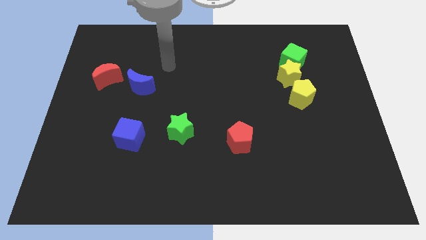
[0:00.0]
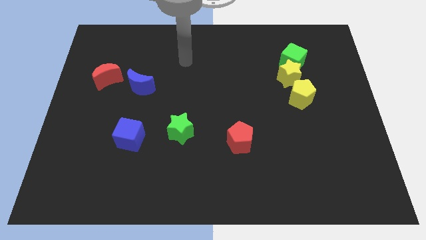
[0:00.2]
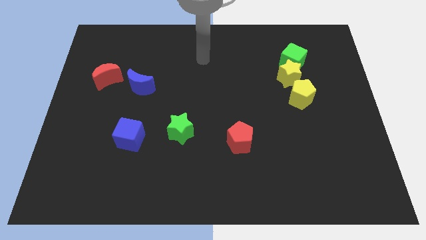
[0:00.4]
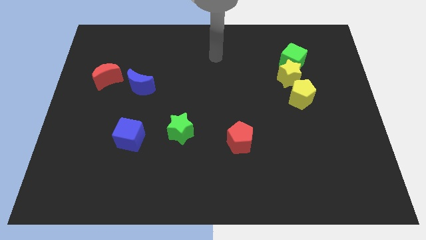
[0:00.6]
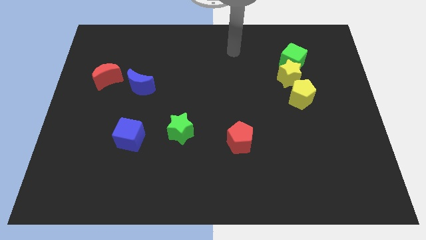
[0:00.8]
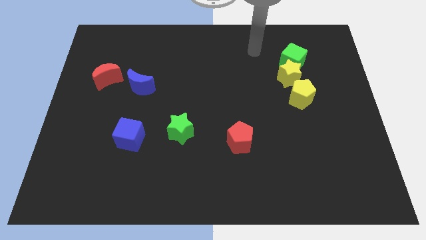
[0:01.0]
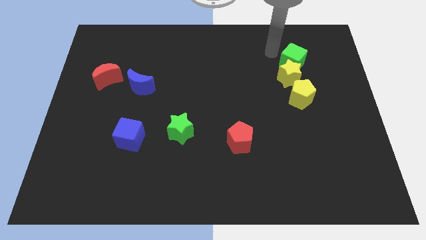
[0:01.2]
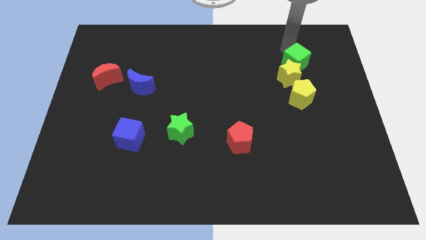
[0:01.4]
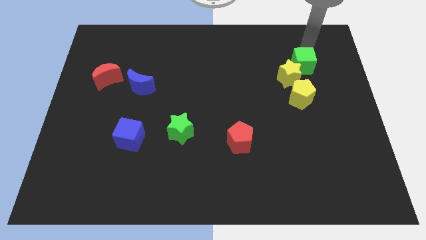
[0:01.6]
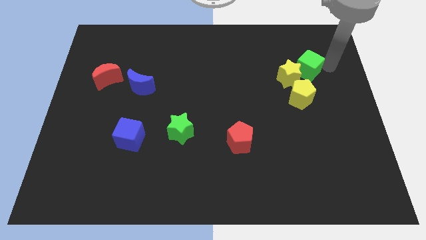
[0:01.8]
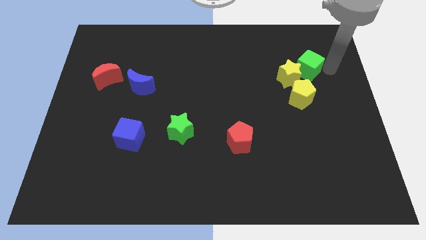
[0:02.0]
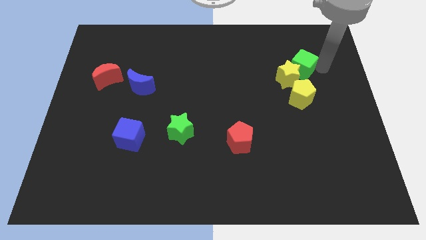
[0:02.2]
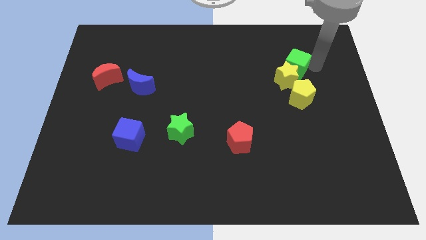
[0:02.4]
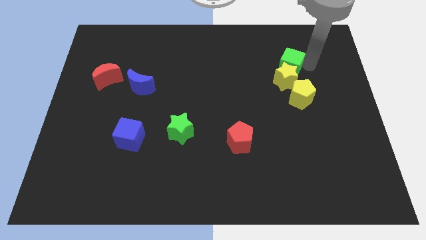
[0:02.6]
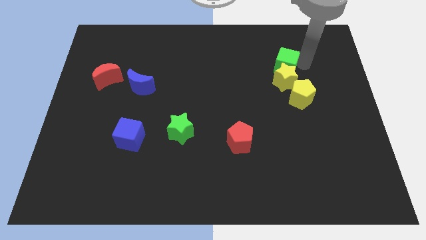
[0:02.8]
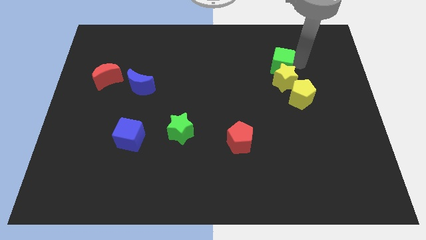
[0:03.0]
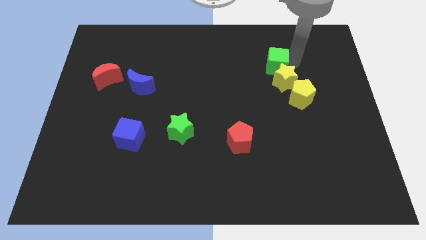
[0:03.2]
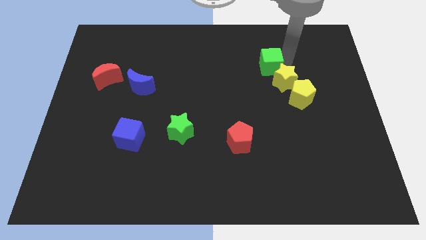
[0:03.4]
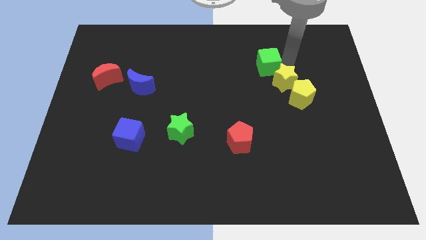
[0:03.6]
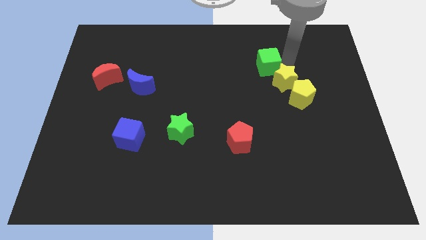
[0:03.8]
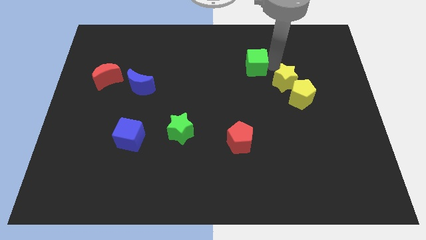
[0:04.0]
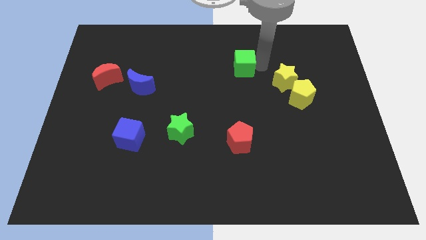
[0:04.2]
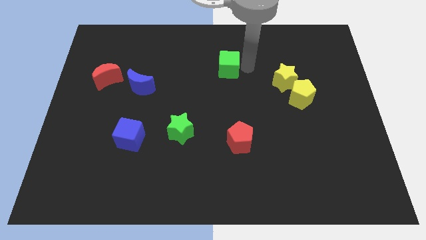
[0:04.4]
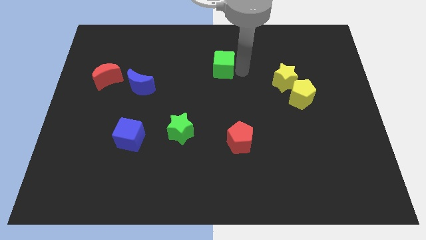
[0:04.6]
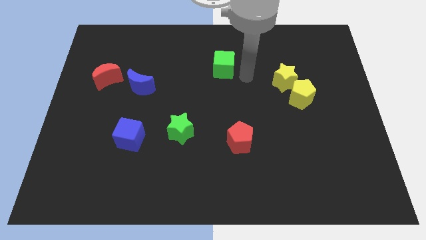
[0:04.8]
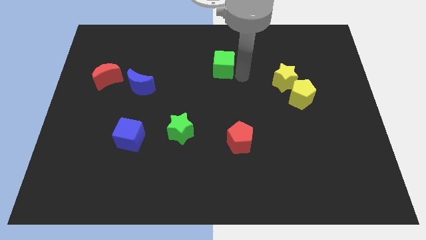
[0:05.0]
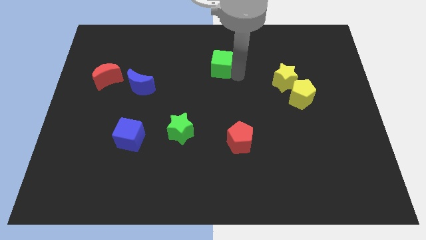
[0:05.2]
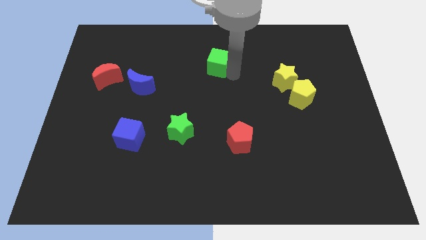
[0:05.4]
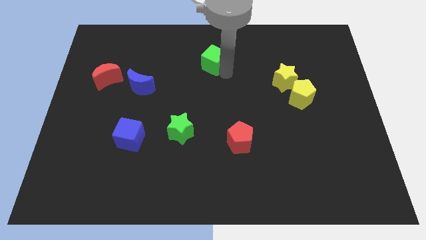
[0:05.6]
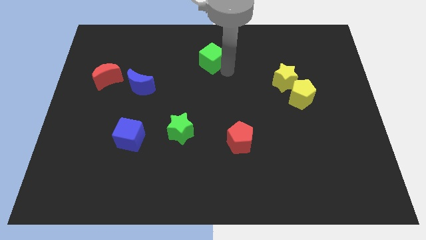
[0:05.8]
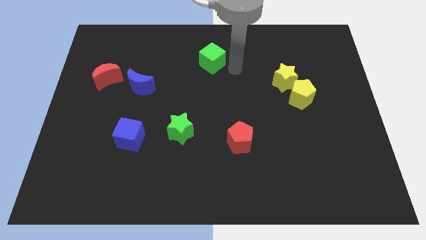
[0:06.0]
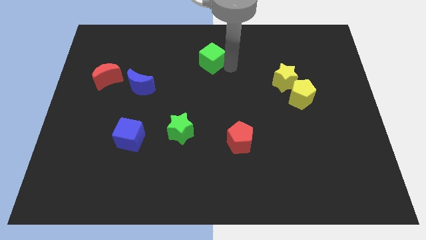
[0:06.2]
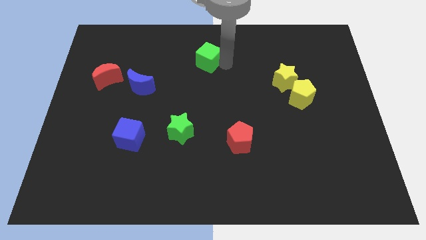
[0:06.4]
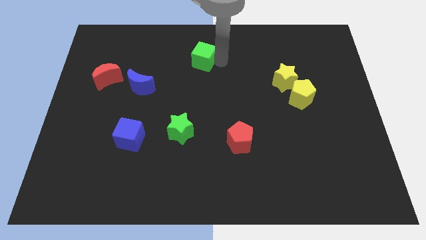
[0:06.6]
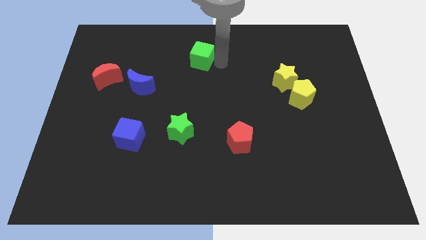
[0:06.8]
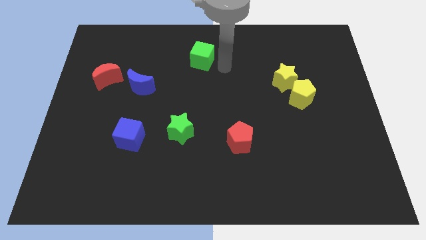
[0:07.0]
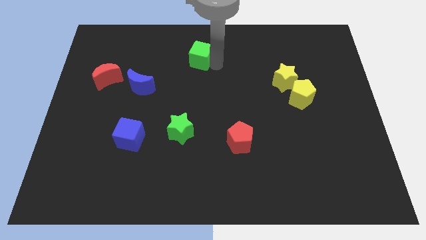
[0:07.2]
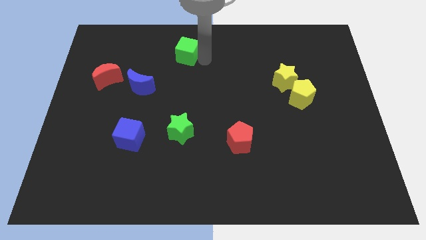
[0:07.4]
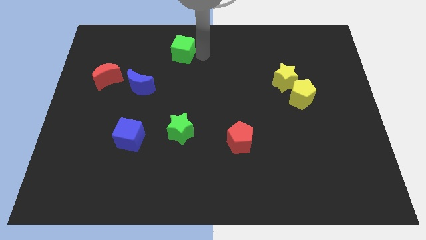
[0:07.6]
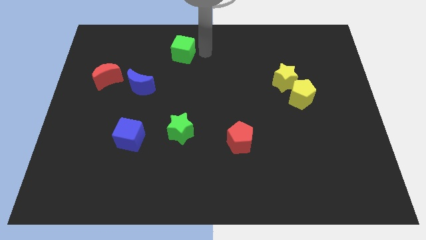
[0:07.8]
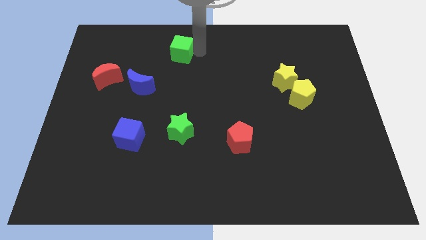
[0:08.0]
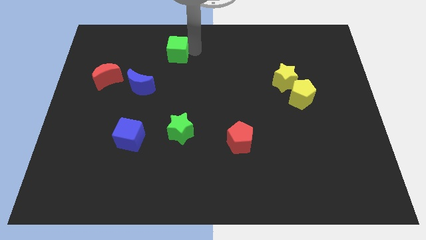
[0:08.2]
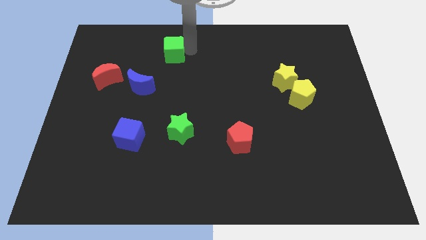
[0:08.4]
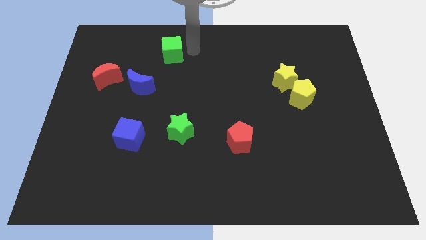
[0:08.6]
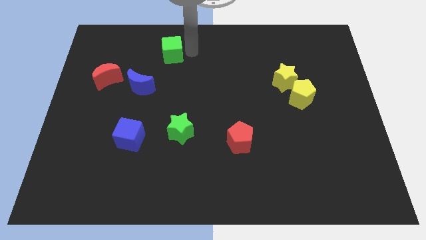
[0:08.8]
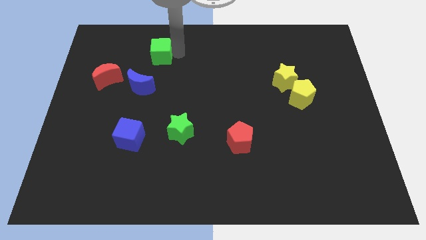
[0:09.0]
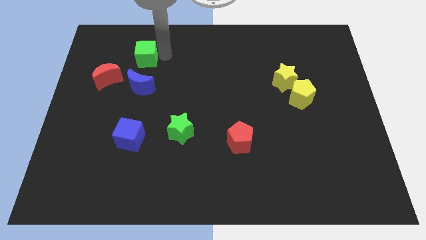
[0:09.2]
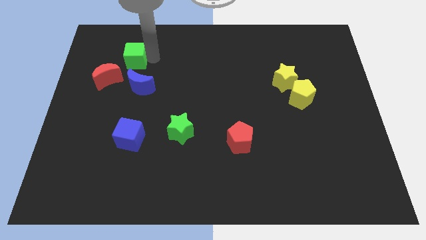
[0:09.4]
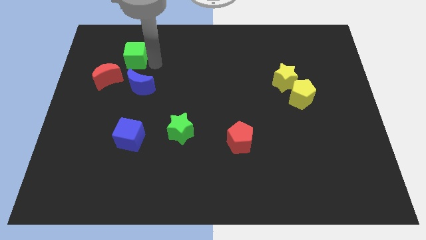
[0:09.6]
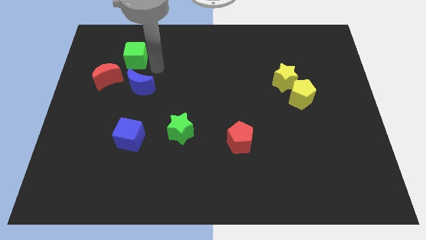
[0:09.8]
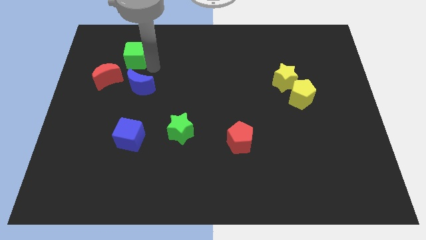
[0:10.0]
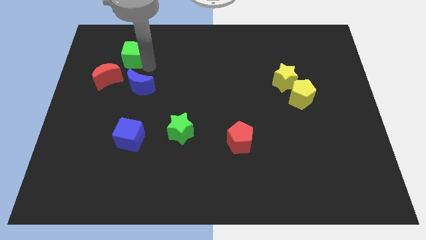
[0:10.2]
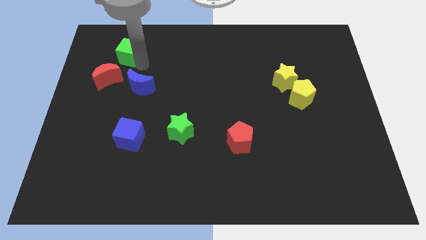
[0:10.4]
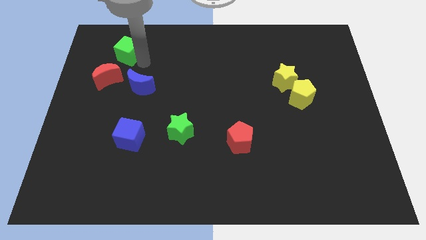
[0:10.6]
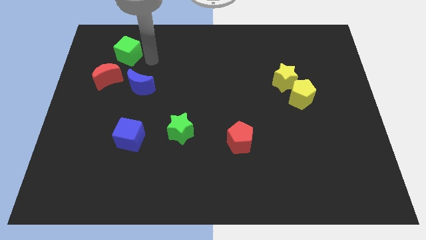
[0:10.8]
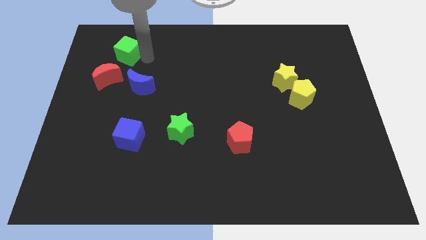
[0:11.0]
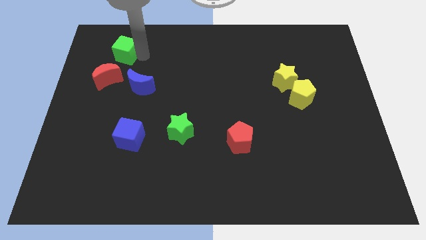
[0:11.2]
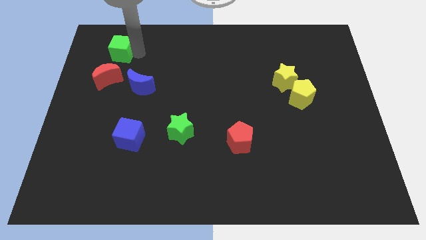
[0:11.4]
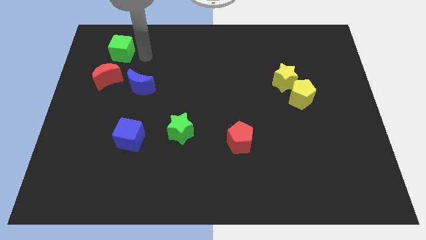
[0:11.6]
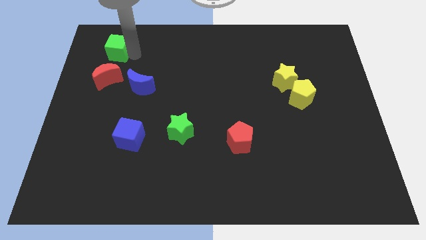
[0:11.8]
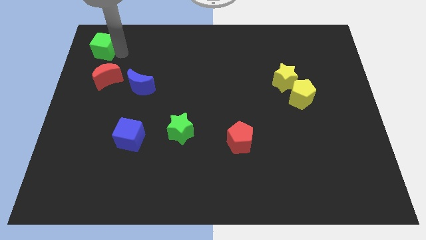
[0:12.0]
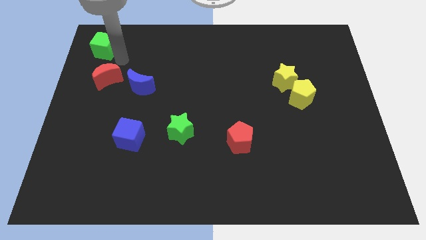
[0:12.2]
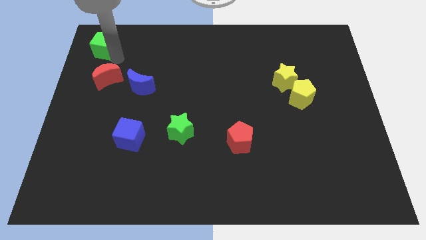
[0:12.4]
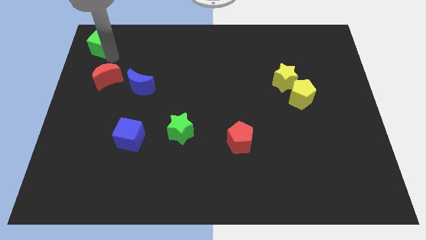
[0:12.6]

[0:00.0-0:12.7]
slide the green cube to the top left

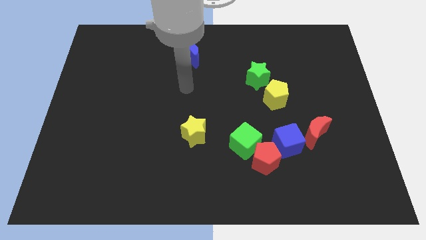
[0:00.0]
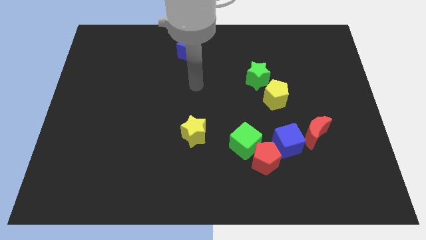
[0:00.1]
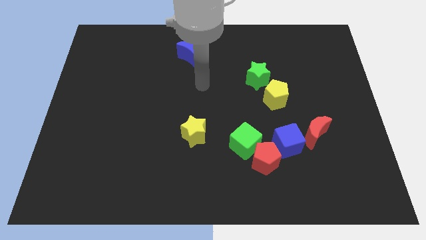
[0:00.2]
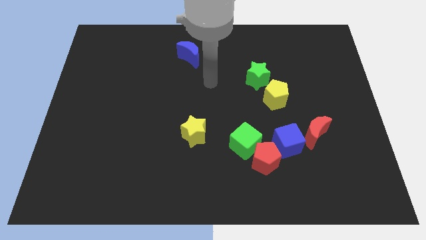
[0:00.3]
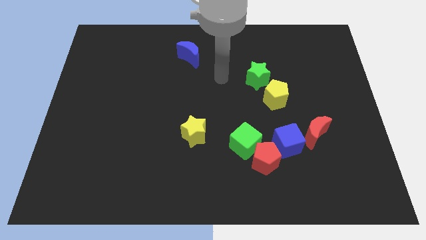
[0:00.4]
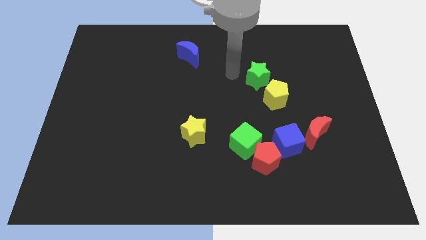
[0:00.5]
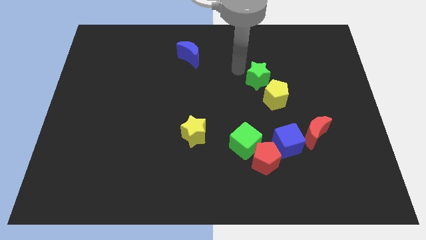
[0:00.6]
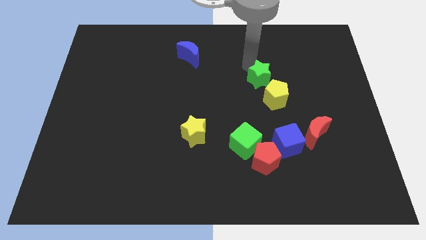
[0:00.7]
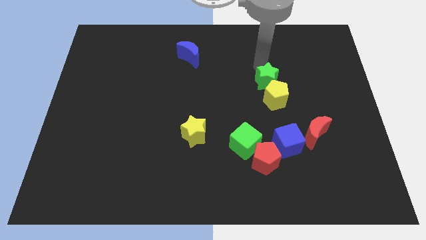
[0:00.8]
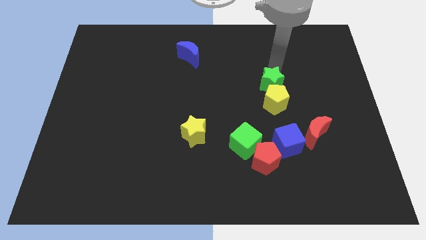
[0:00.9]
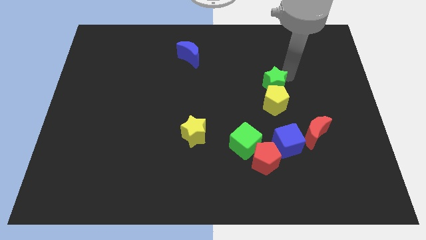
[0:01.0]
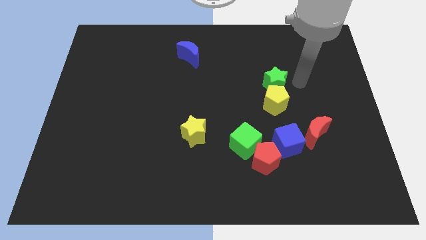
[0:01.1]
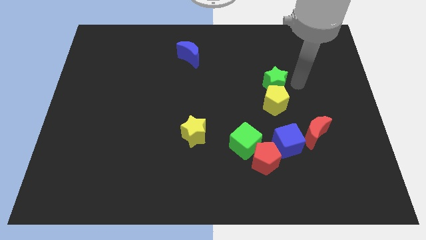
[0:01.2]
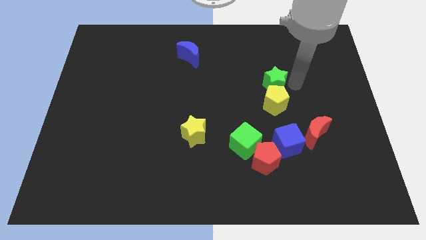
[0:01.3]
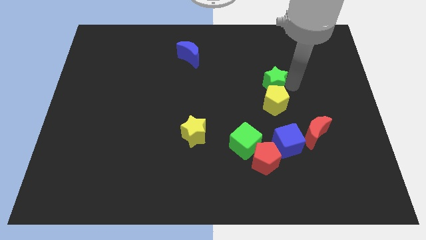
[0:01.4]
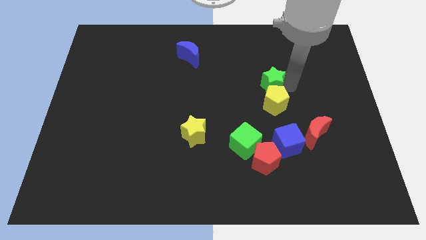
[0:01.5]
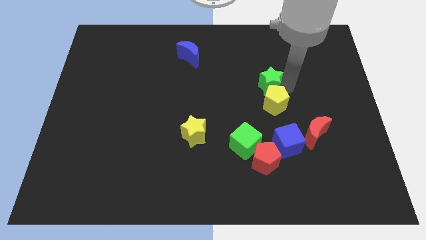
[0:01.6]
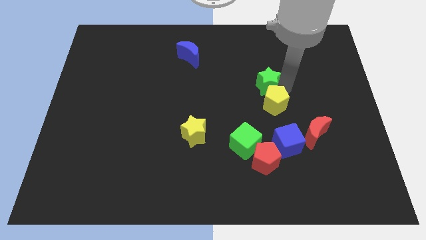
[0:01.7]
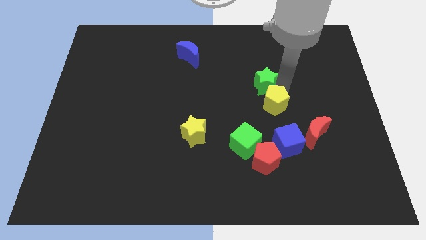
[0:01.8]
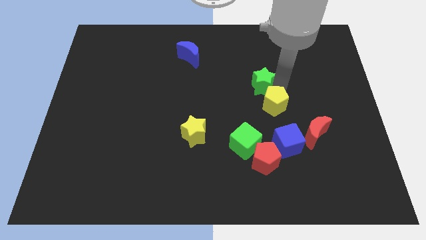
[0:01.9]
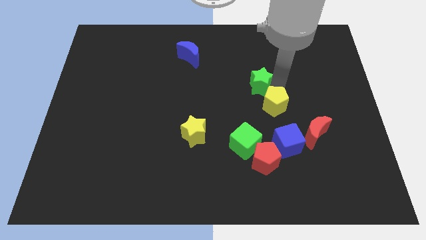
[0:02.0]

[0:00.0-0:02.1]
move the green star to the center
